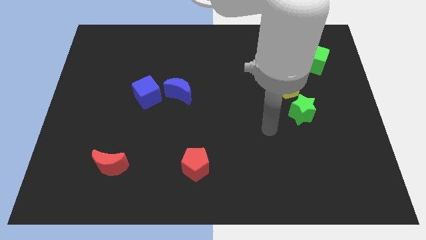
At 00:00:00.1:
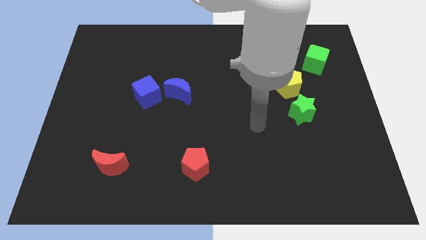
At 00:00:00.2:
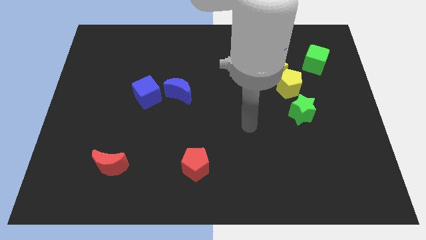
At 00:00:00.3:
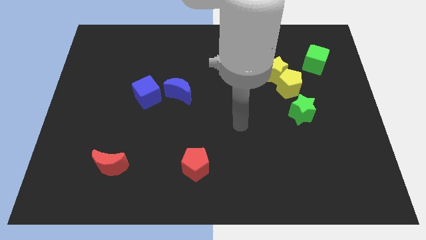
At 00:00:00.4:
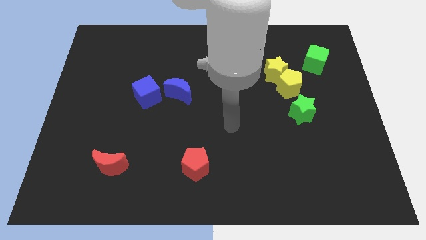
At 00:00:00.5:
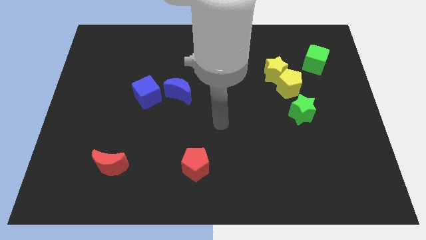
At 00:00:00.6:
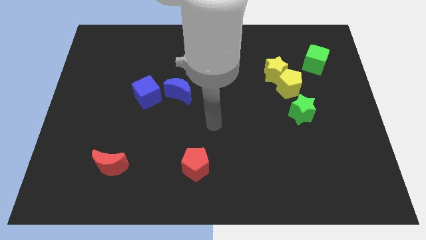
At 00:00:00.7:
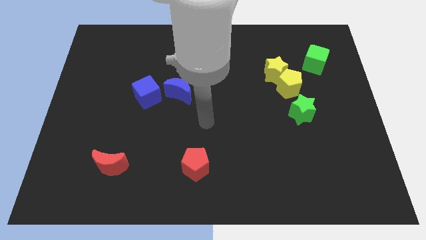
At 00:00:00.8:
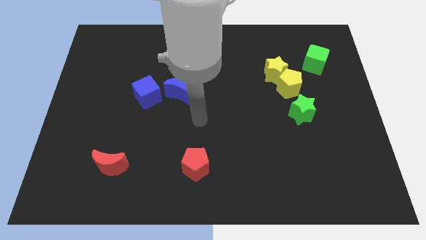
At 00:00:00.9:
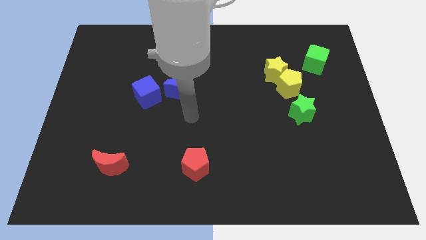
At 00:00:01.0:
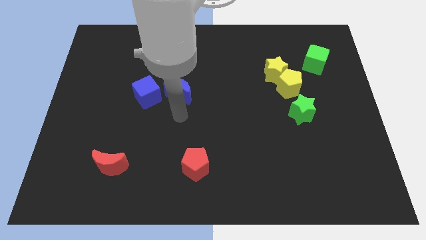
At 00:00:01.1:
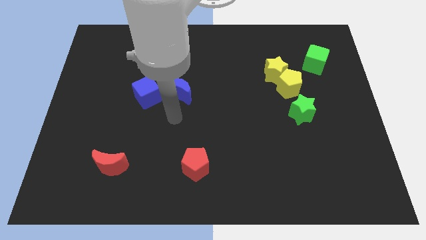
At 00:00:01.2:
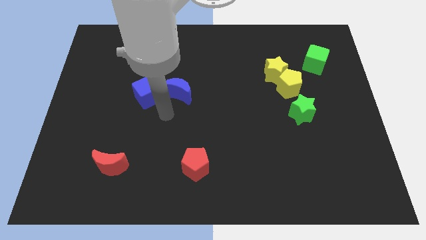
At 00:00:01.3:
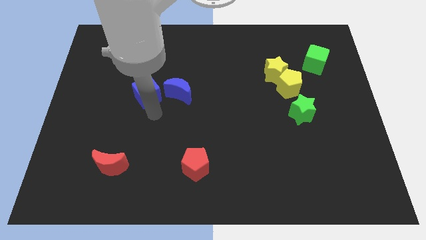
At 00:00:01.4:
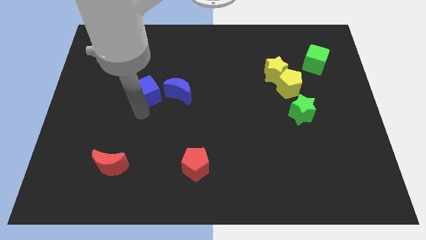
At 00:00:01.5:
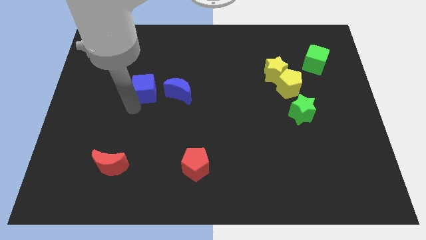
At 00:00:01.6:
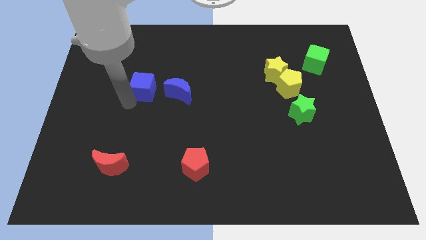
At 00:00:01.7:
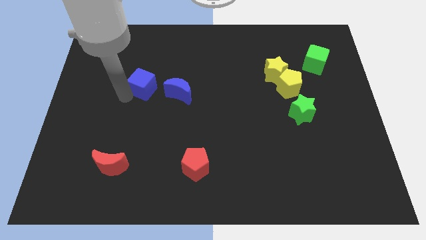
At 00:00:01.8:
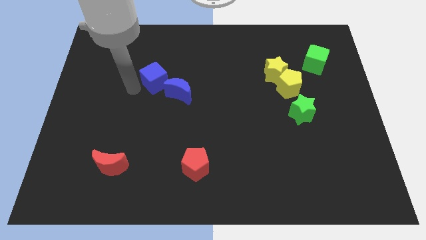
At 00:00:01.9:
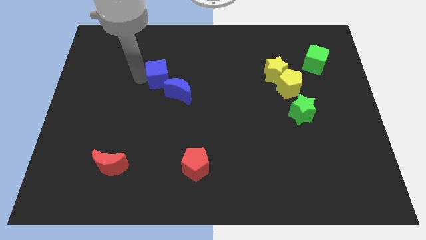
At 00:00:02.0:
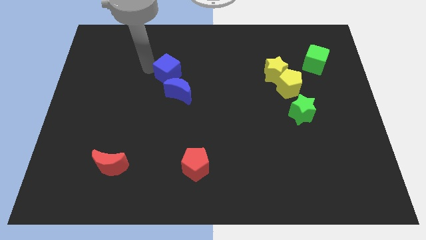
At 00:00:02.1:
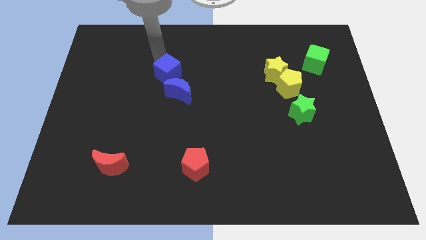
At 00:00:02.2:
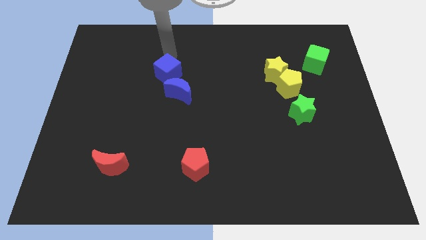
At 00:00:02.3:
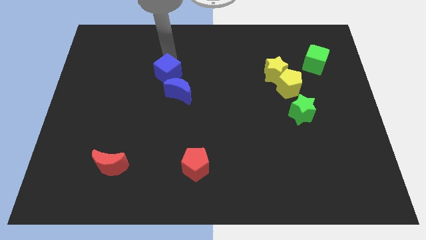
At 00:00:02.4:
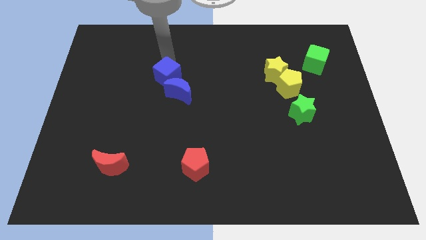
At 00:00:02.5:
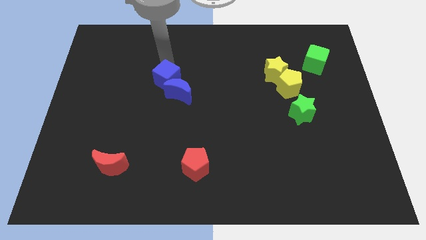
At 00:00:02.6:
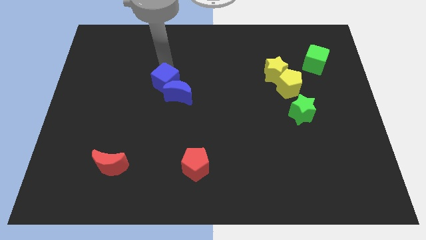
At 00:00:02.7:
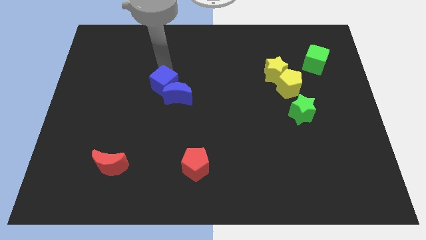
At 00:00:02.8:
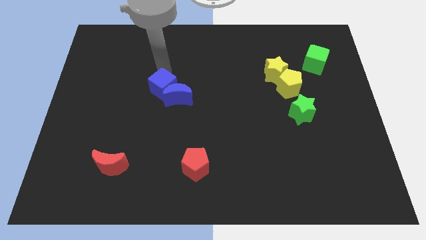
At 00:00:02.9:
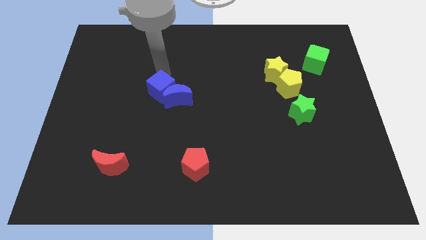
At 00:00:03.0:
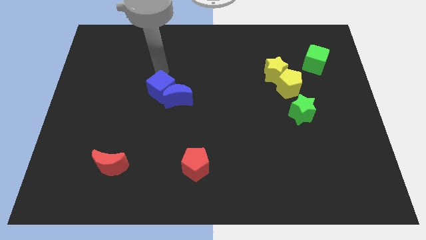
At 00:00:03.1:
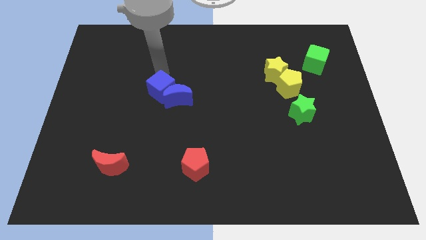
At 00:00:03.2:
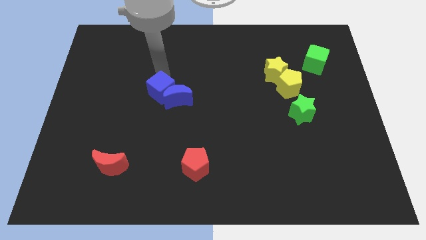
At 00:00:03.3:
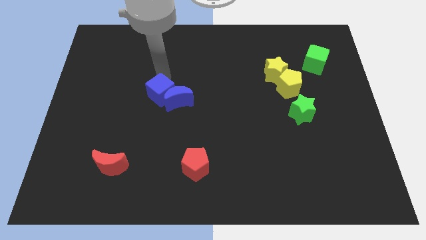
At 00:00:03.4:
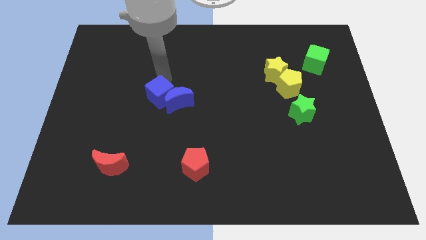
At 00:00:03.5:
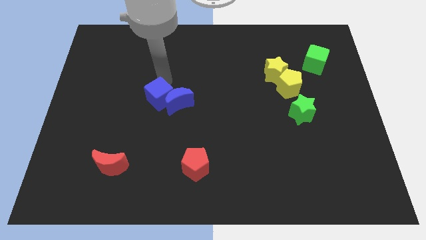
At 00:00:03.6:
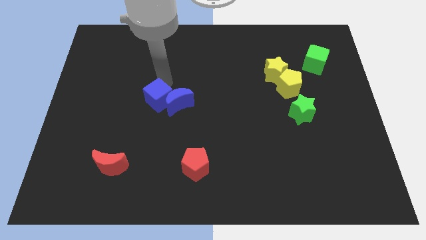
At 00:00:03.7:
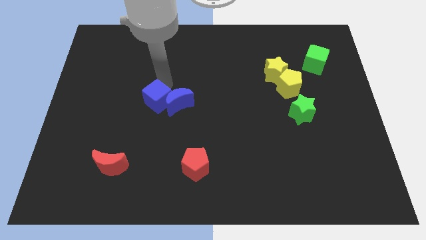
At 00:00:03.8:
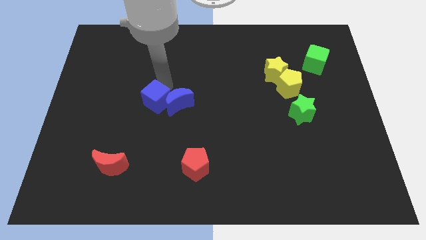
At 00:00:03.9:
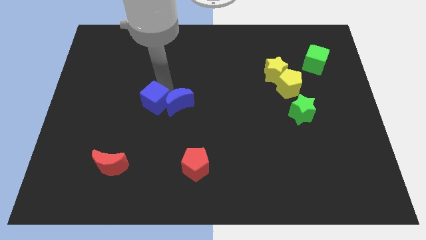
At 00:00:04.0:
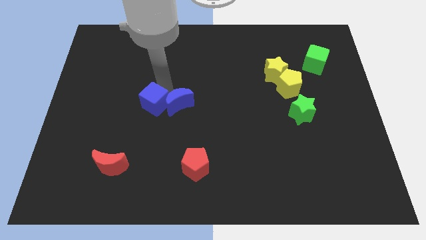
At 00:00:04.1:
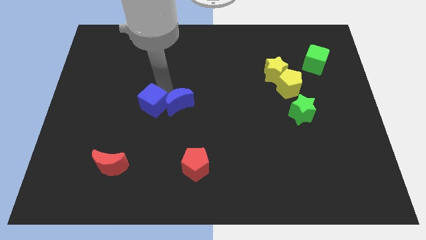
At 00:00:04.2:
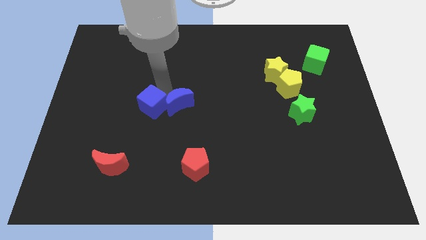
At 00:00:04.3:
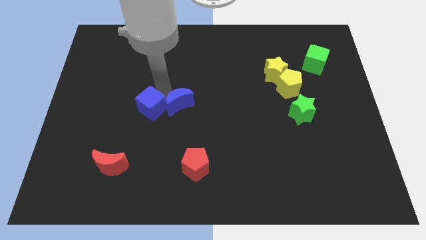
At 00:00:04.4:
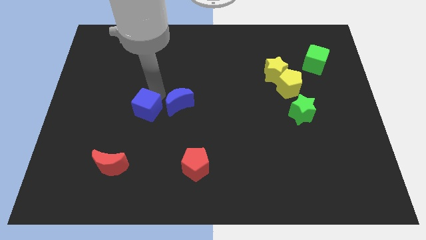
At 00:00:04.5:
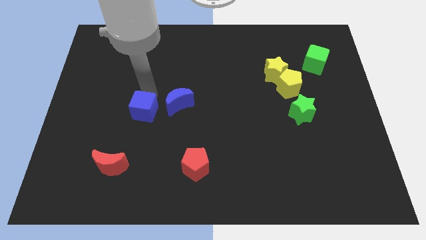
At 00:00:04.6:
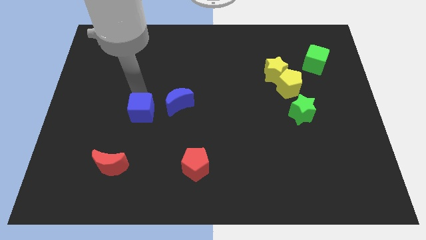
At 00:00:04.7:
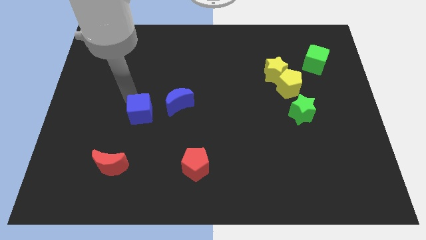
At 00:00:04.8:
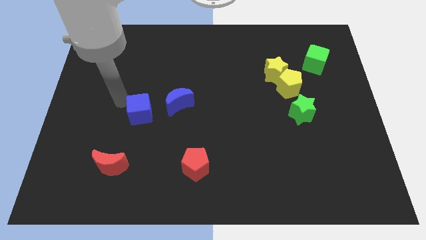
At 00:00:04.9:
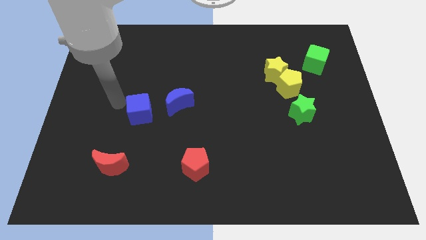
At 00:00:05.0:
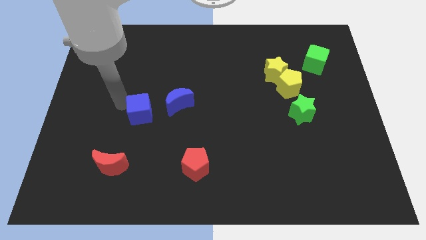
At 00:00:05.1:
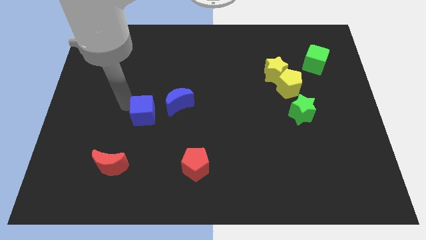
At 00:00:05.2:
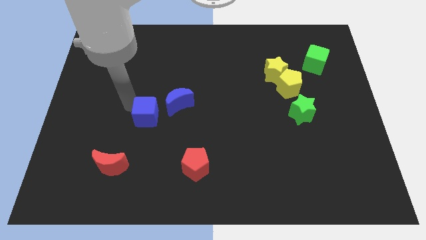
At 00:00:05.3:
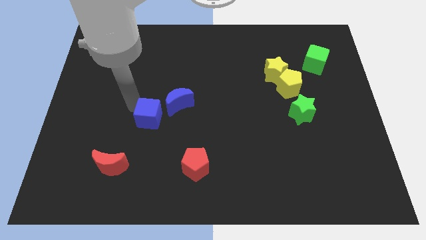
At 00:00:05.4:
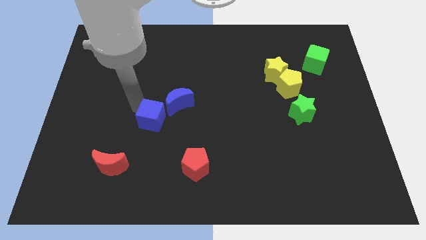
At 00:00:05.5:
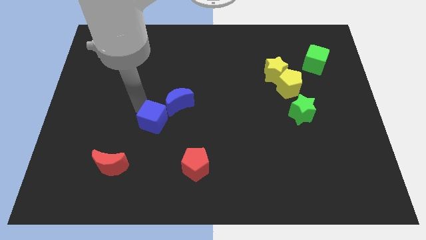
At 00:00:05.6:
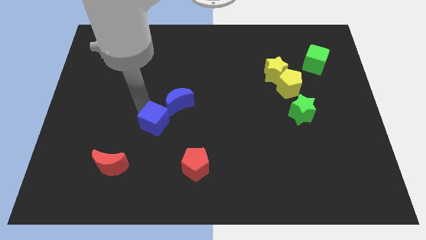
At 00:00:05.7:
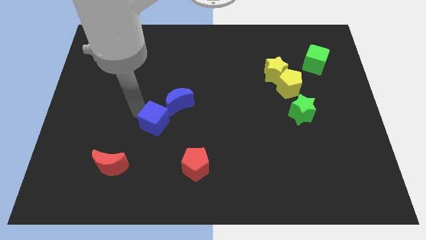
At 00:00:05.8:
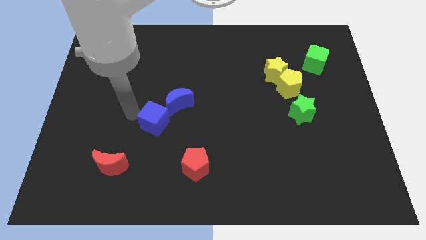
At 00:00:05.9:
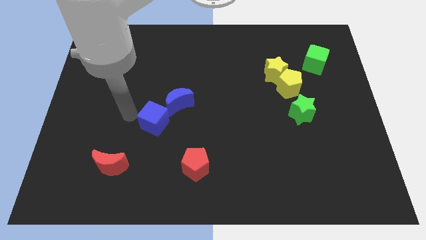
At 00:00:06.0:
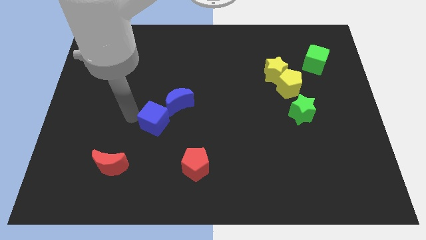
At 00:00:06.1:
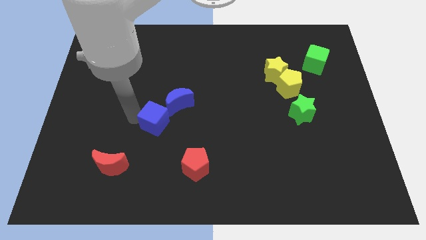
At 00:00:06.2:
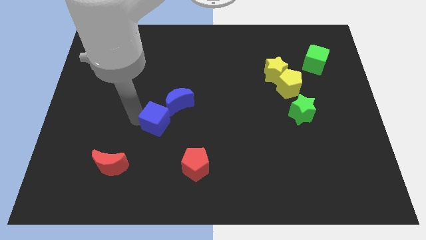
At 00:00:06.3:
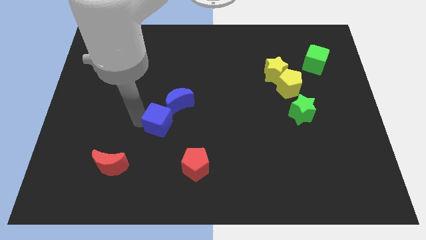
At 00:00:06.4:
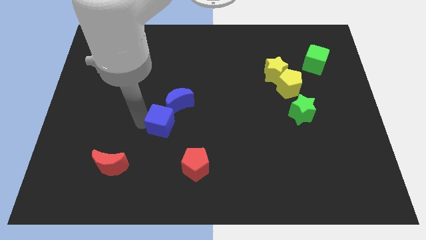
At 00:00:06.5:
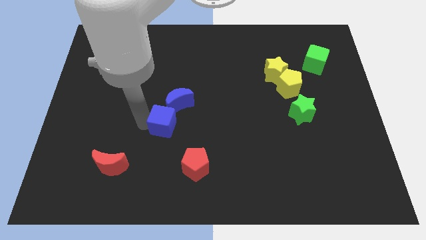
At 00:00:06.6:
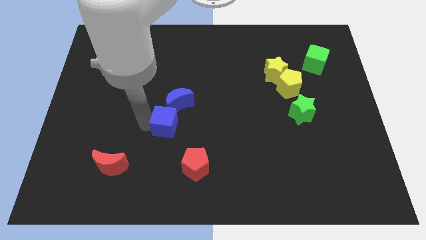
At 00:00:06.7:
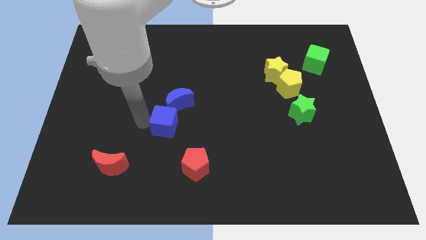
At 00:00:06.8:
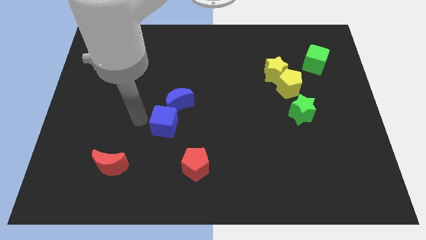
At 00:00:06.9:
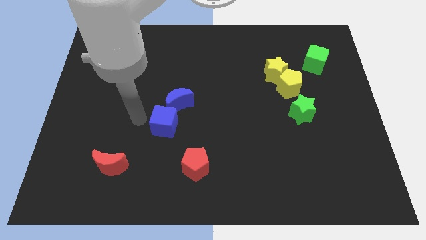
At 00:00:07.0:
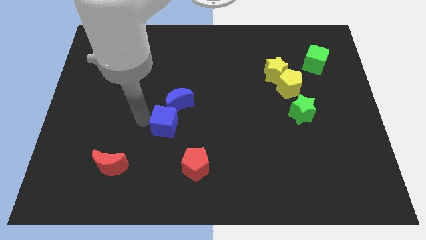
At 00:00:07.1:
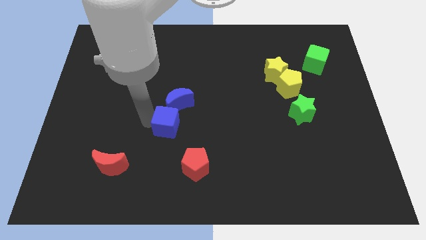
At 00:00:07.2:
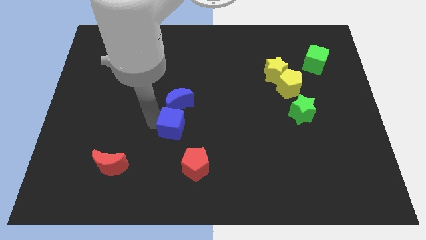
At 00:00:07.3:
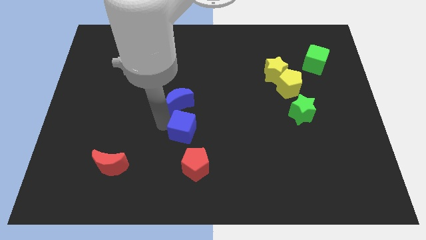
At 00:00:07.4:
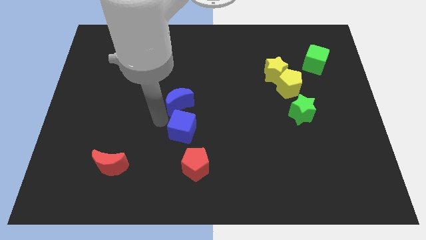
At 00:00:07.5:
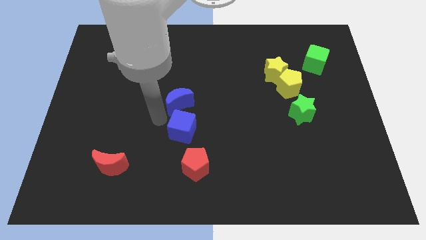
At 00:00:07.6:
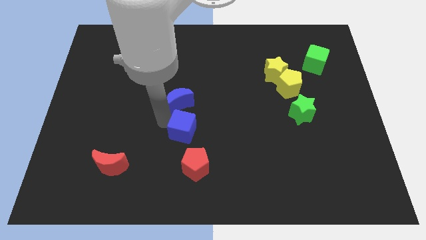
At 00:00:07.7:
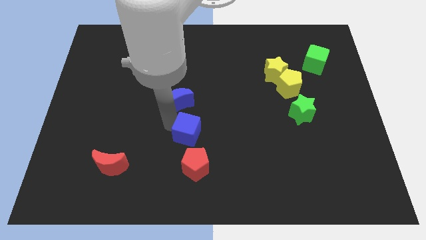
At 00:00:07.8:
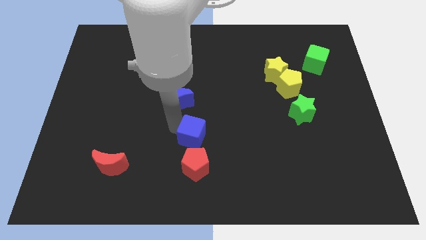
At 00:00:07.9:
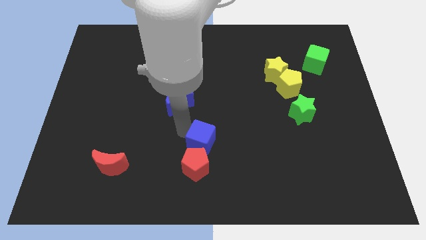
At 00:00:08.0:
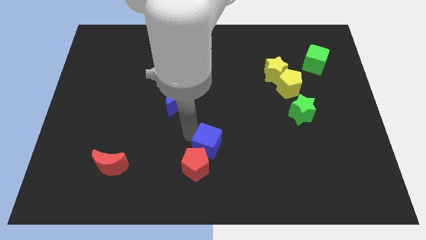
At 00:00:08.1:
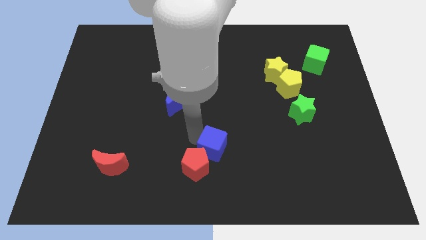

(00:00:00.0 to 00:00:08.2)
put the blue cube just right of the red pentagon
